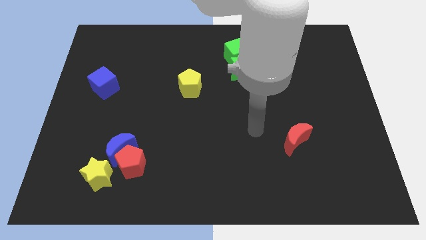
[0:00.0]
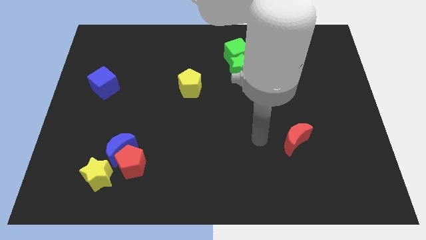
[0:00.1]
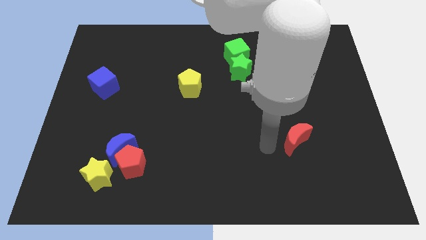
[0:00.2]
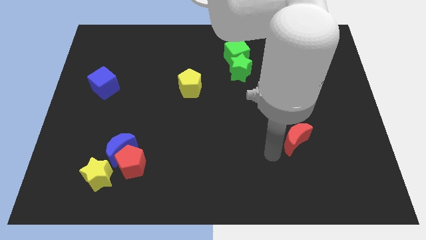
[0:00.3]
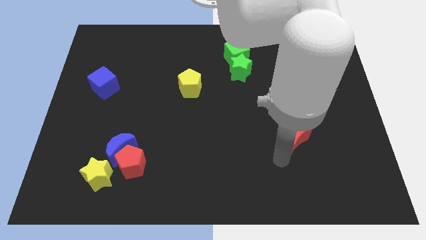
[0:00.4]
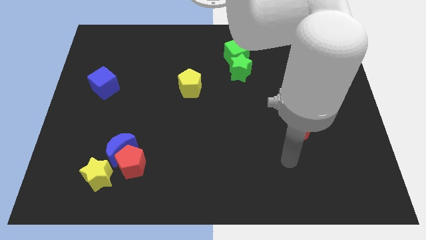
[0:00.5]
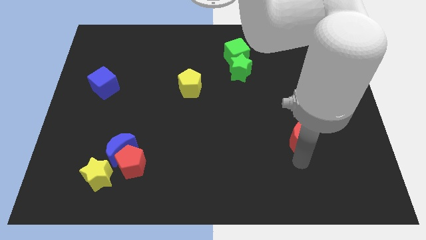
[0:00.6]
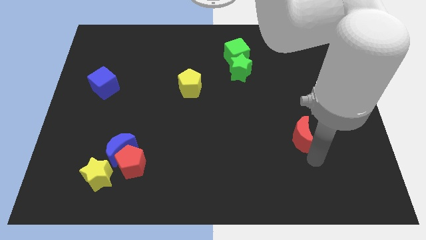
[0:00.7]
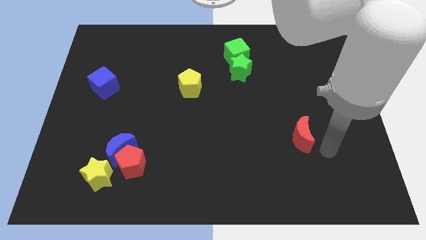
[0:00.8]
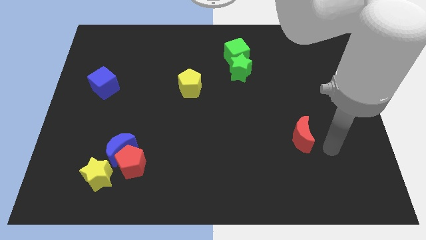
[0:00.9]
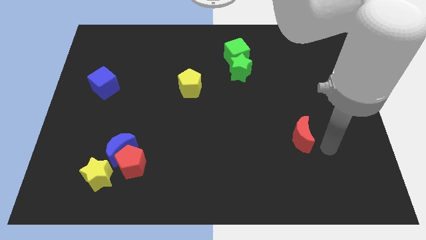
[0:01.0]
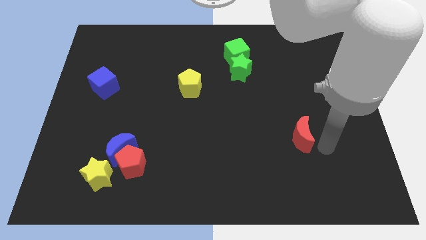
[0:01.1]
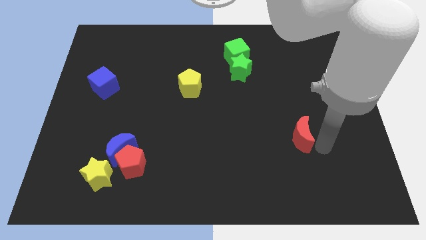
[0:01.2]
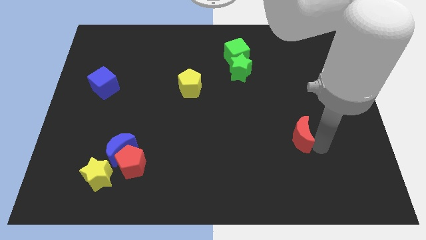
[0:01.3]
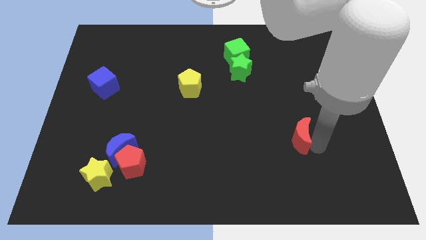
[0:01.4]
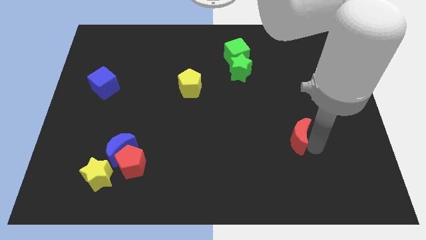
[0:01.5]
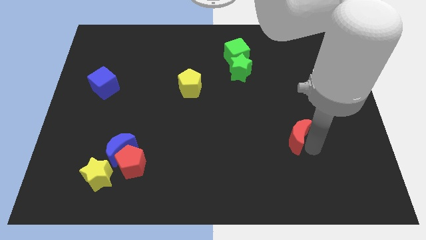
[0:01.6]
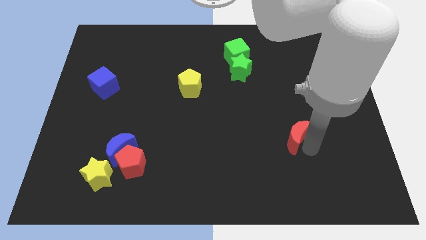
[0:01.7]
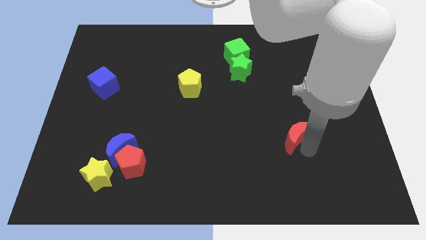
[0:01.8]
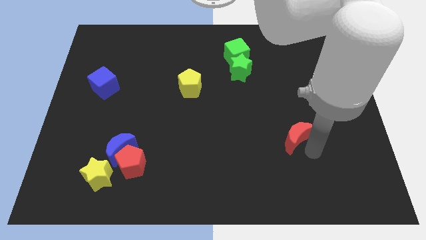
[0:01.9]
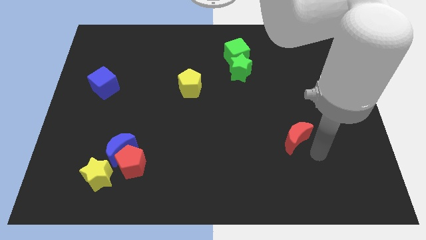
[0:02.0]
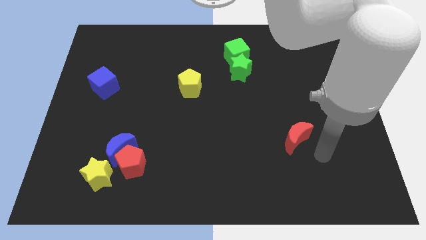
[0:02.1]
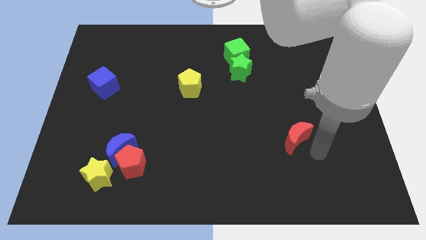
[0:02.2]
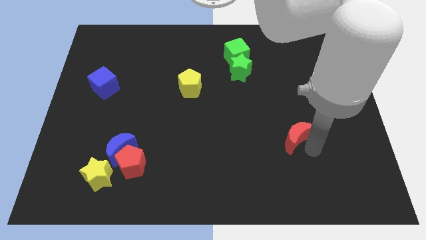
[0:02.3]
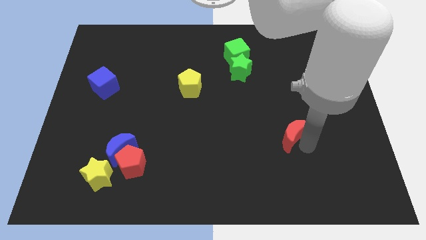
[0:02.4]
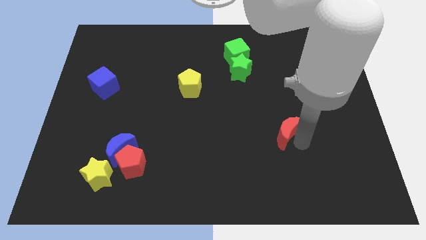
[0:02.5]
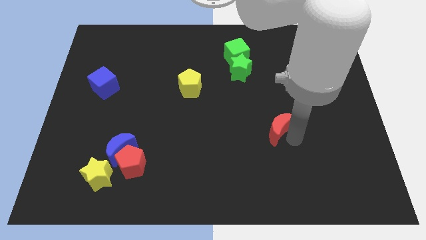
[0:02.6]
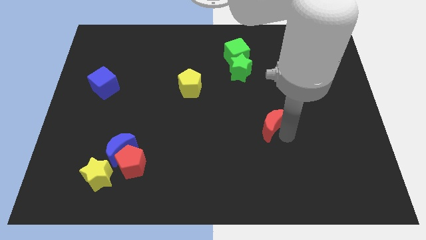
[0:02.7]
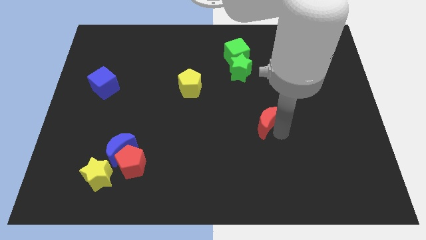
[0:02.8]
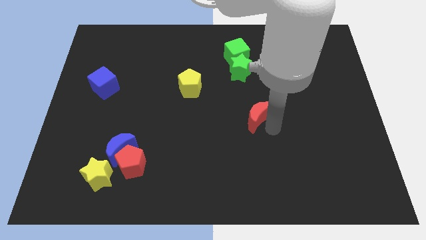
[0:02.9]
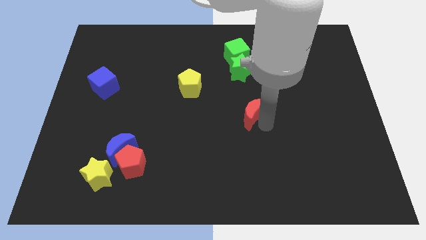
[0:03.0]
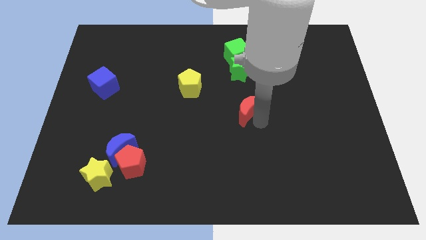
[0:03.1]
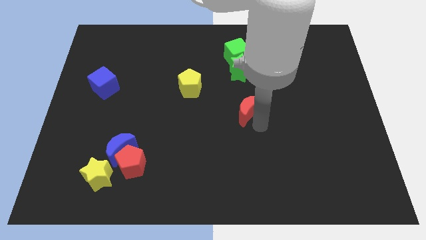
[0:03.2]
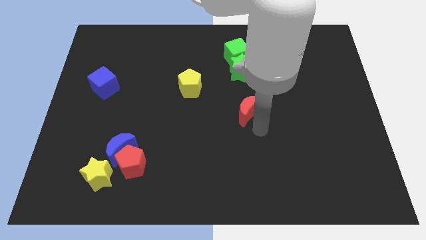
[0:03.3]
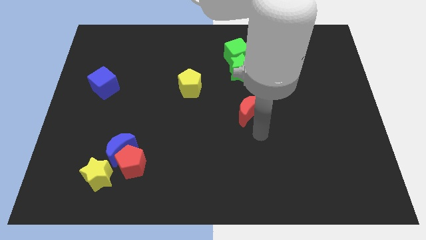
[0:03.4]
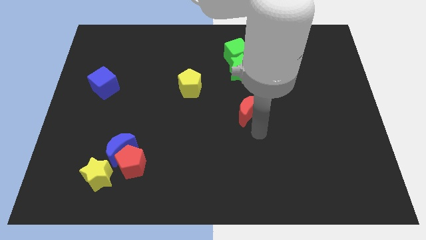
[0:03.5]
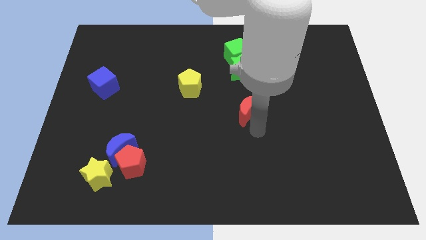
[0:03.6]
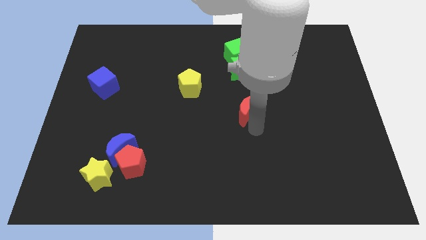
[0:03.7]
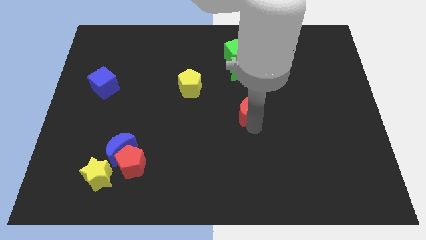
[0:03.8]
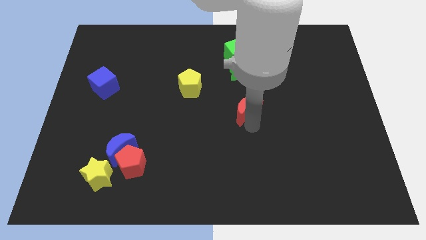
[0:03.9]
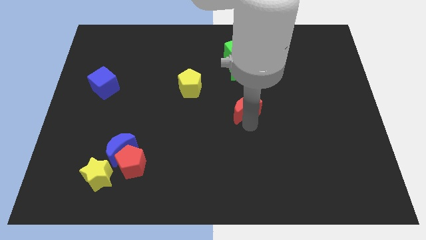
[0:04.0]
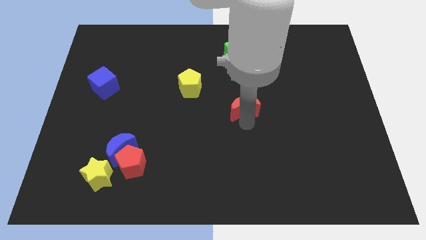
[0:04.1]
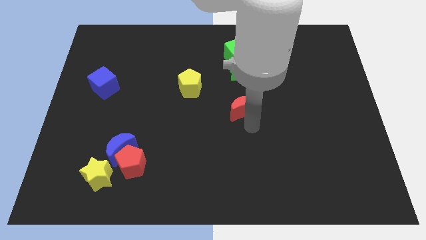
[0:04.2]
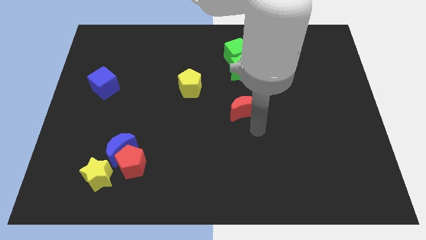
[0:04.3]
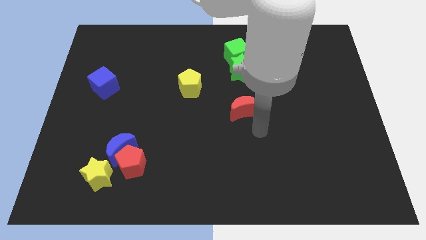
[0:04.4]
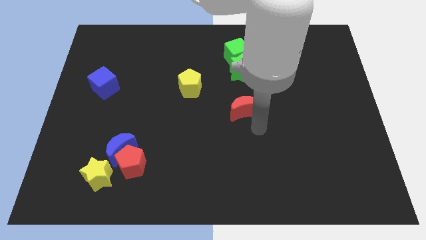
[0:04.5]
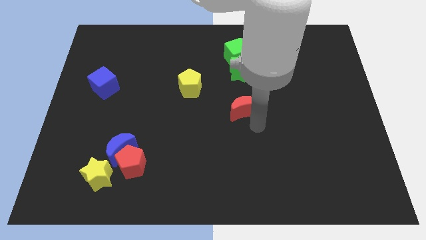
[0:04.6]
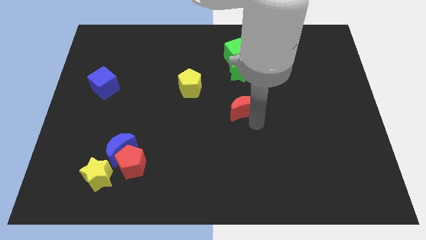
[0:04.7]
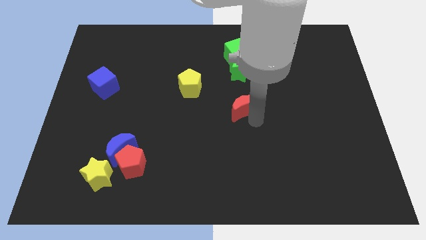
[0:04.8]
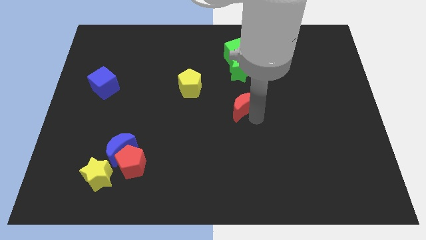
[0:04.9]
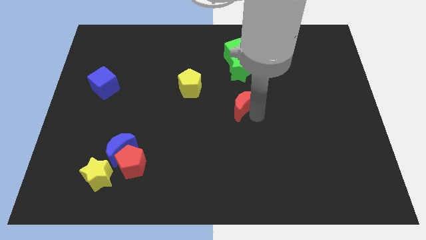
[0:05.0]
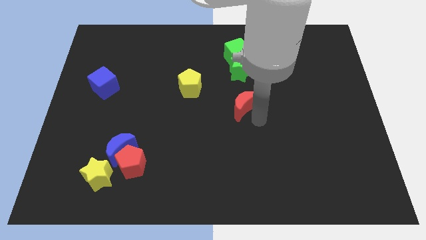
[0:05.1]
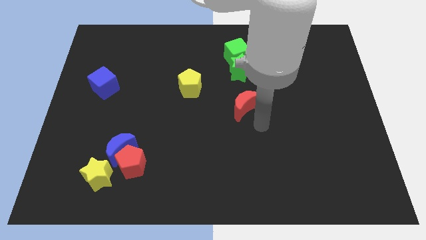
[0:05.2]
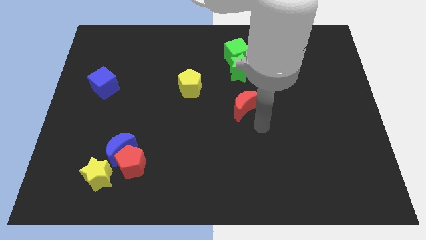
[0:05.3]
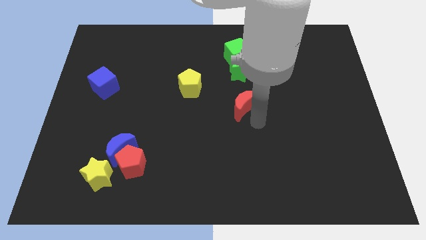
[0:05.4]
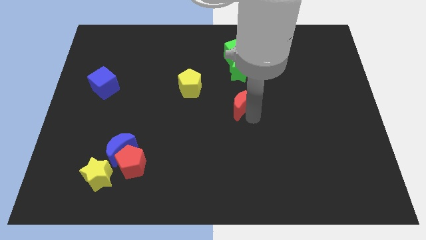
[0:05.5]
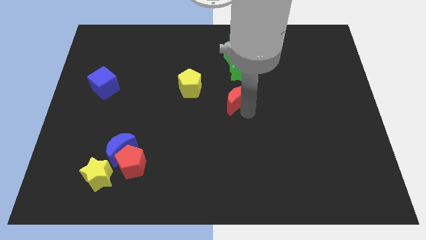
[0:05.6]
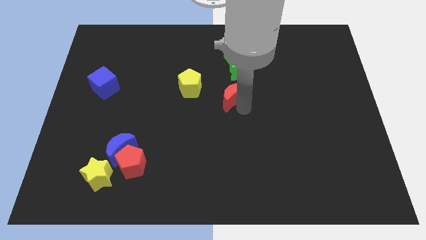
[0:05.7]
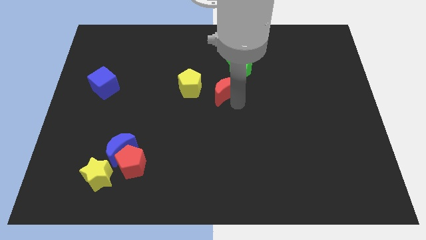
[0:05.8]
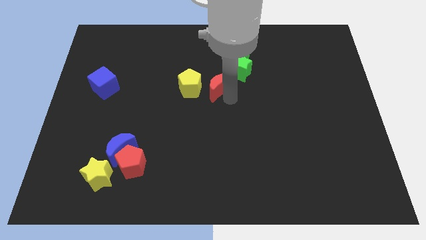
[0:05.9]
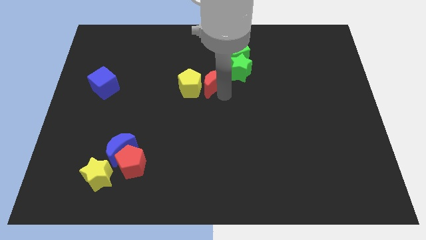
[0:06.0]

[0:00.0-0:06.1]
push the red moon to the top right of the yellow pentagon

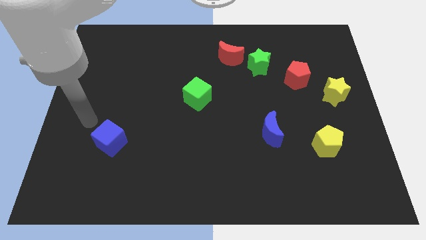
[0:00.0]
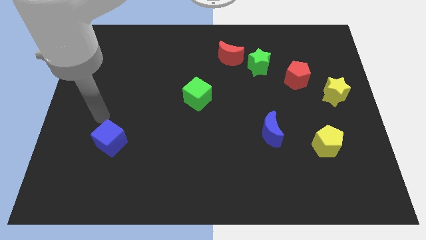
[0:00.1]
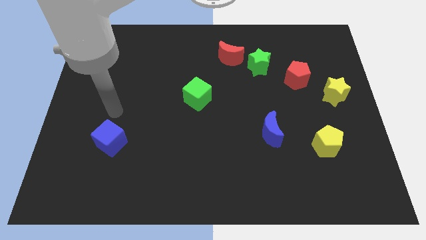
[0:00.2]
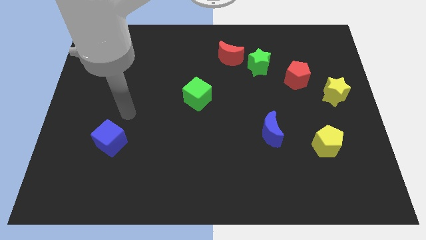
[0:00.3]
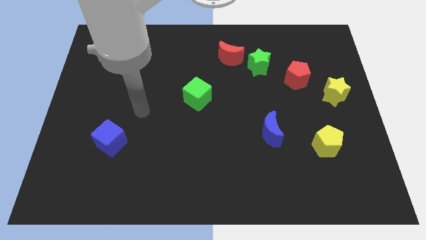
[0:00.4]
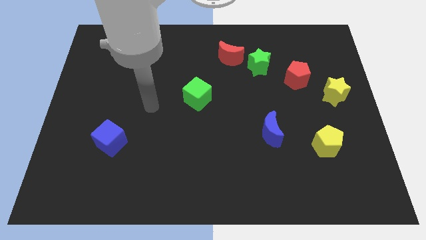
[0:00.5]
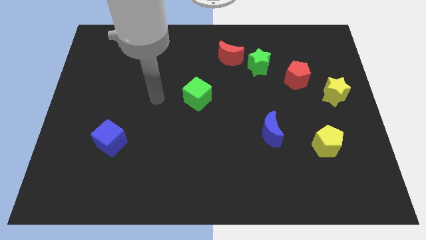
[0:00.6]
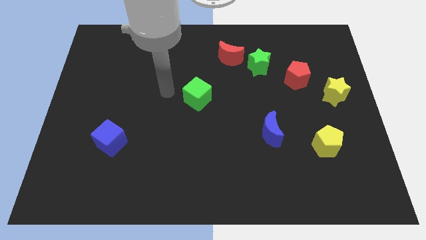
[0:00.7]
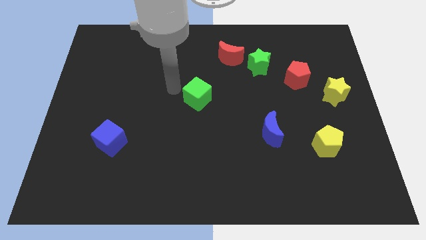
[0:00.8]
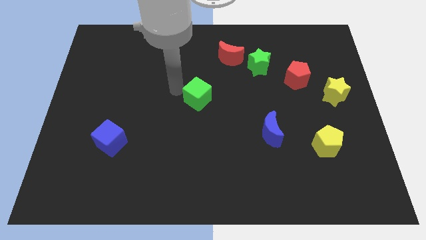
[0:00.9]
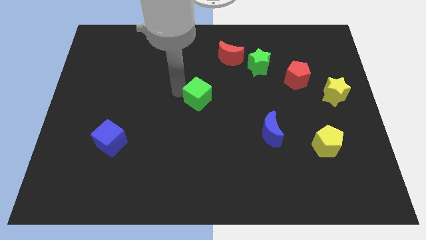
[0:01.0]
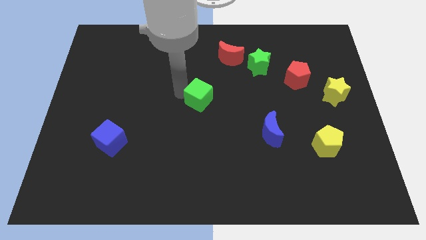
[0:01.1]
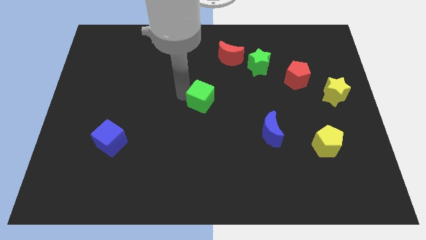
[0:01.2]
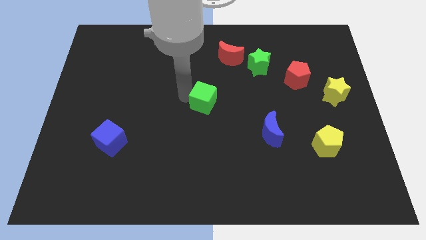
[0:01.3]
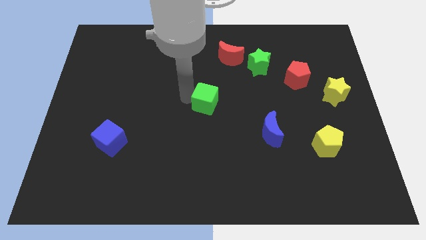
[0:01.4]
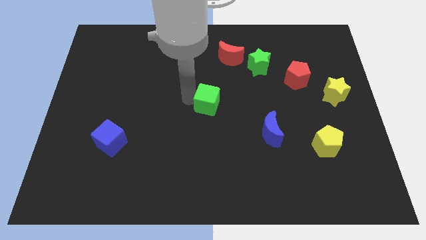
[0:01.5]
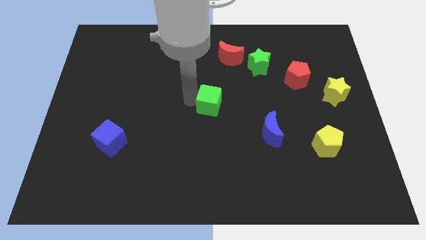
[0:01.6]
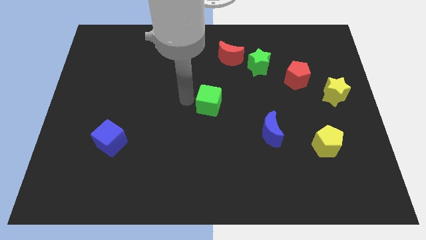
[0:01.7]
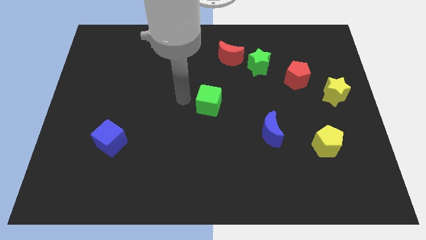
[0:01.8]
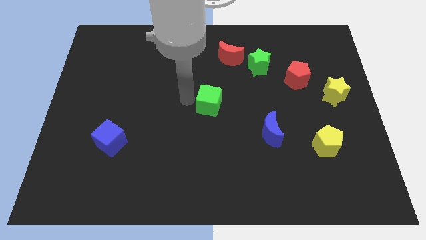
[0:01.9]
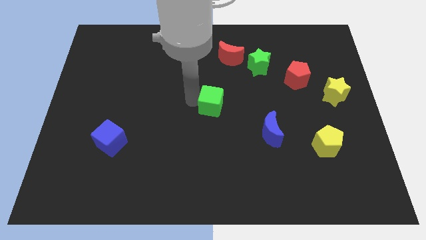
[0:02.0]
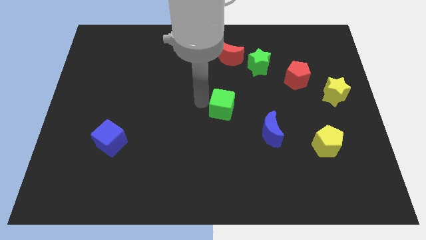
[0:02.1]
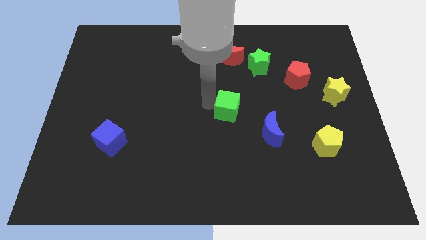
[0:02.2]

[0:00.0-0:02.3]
push the green cube to the top left of the blue moon
